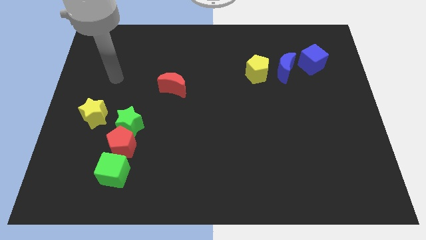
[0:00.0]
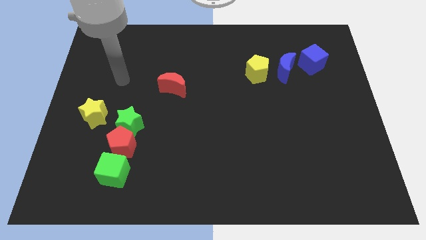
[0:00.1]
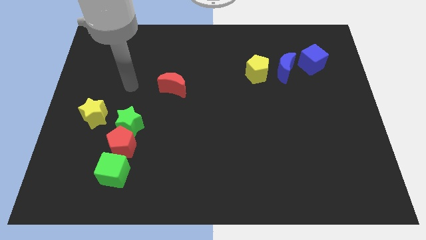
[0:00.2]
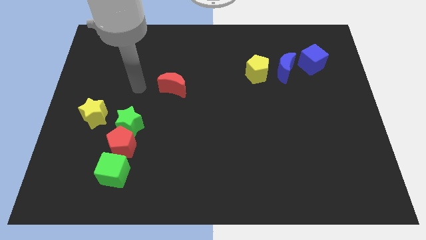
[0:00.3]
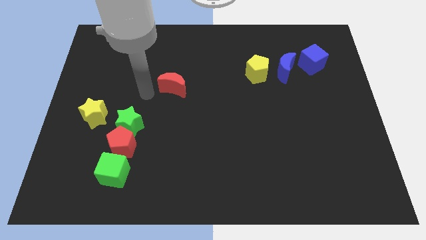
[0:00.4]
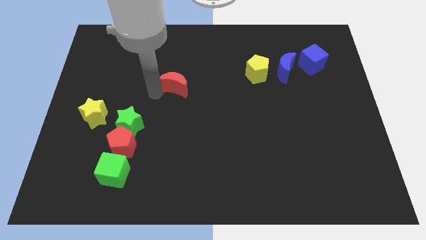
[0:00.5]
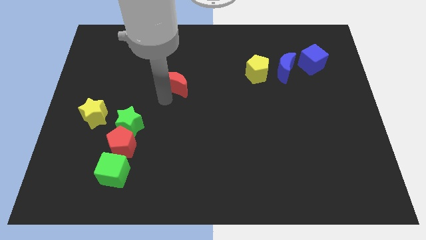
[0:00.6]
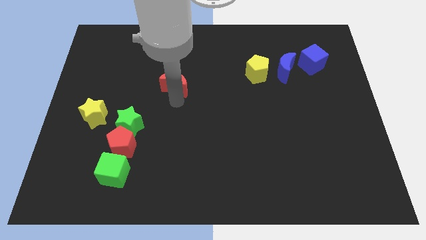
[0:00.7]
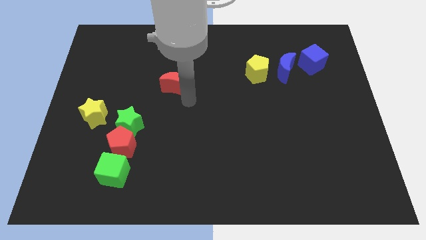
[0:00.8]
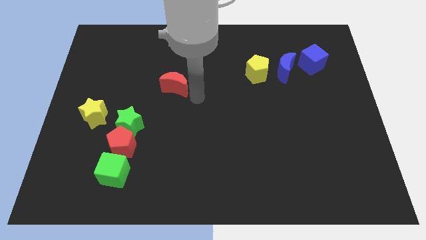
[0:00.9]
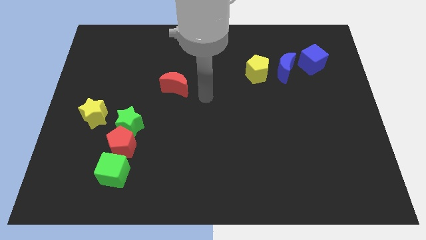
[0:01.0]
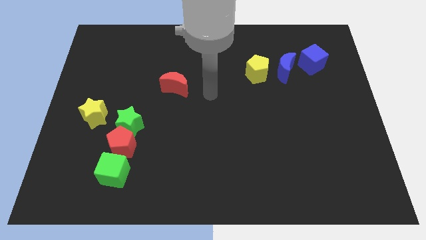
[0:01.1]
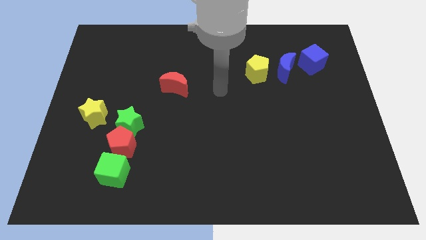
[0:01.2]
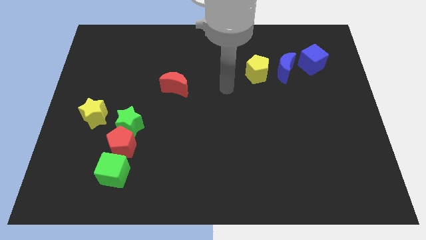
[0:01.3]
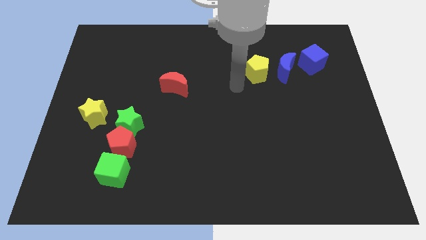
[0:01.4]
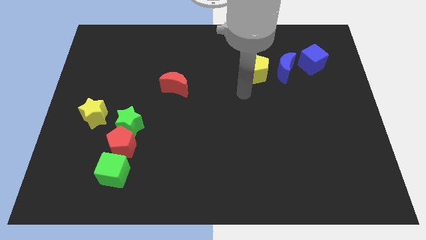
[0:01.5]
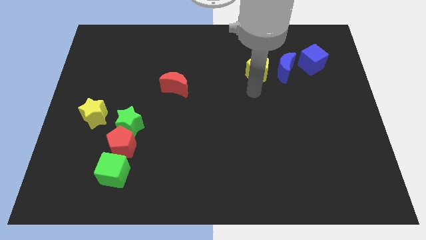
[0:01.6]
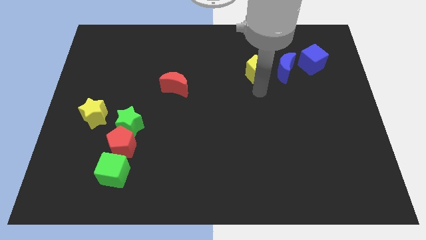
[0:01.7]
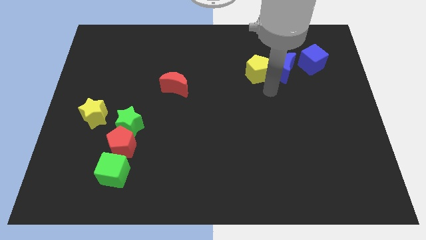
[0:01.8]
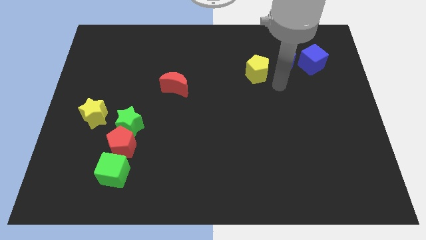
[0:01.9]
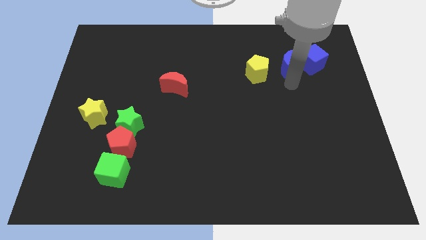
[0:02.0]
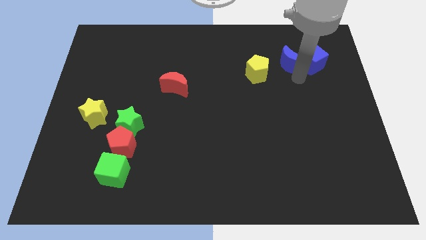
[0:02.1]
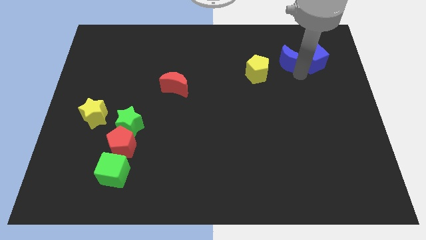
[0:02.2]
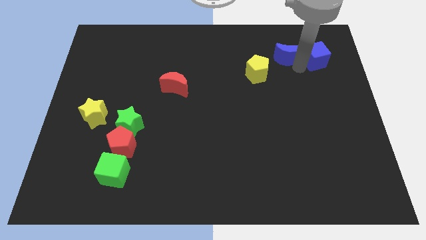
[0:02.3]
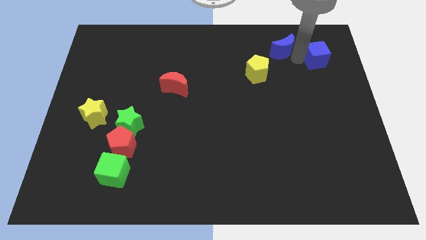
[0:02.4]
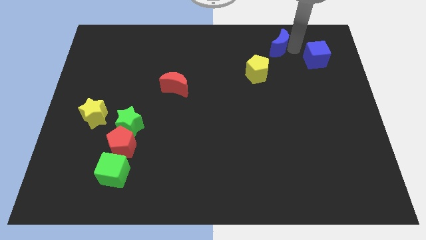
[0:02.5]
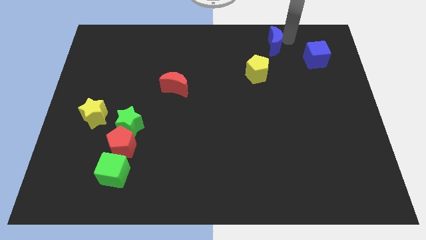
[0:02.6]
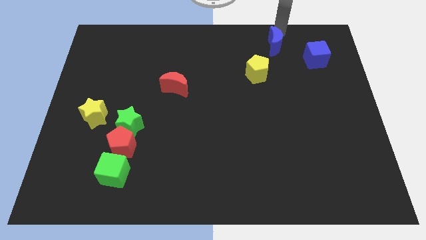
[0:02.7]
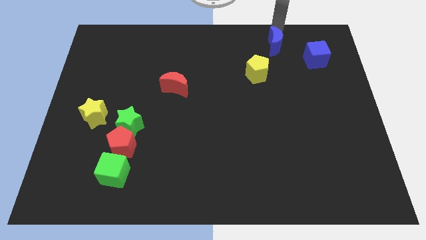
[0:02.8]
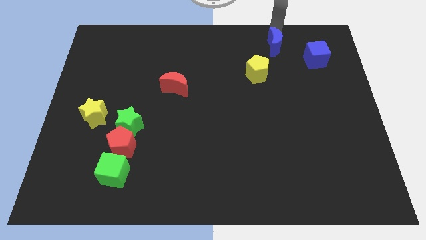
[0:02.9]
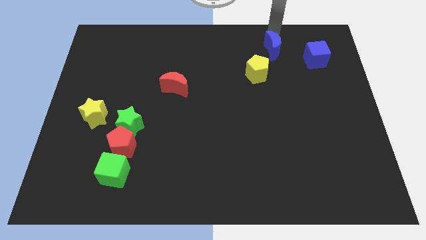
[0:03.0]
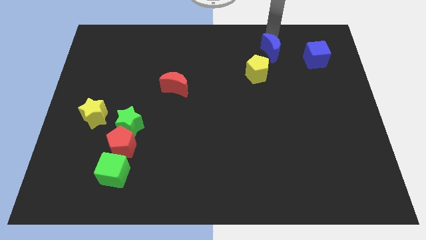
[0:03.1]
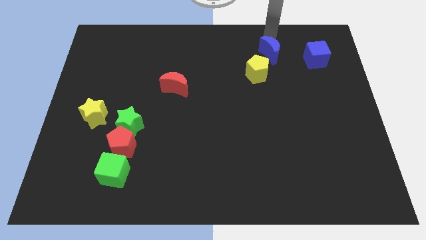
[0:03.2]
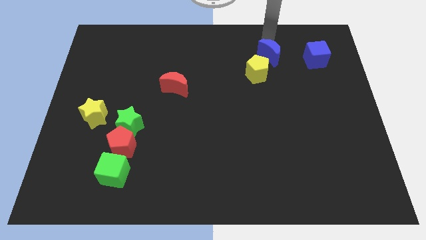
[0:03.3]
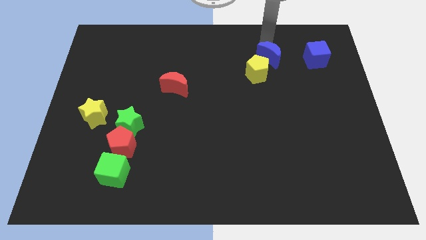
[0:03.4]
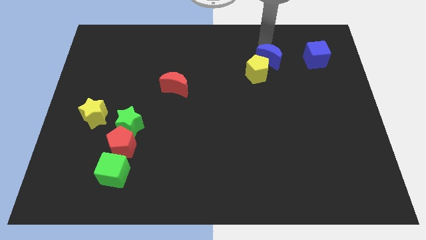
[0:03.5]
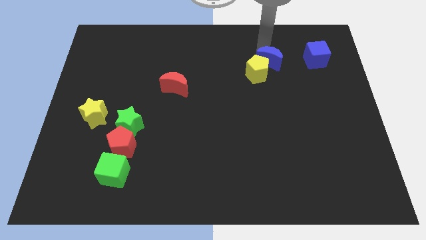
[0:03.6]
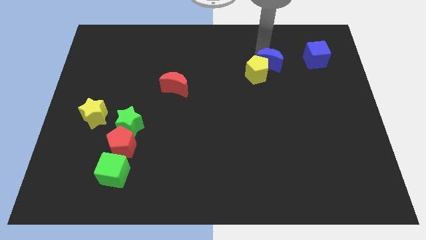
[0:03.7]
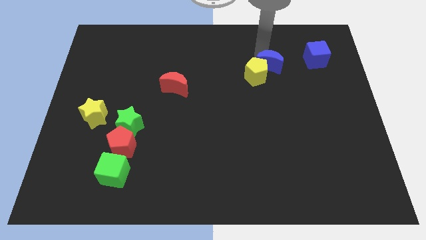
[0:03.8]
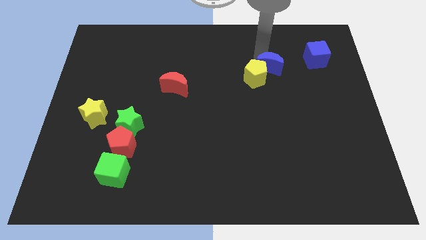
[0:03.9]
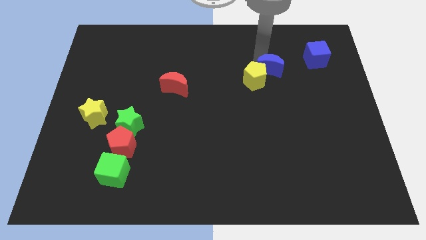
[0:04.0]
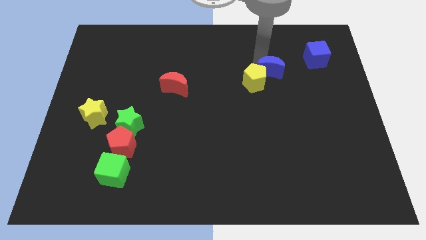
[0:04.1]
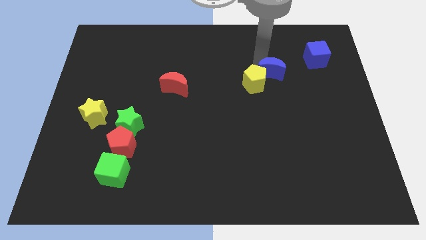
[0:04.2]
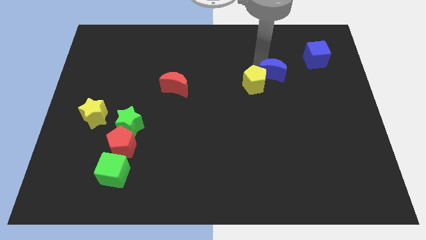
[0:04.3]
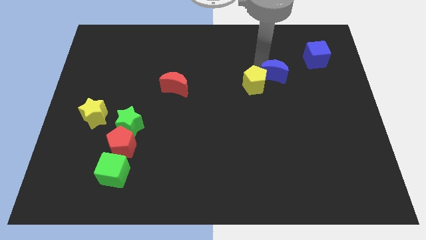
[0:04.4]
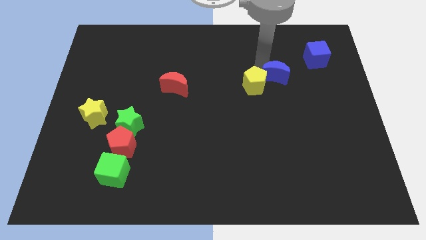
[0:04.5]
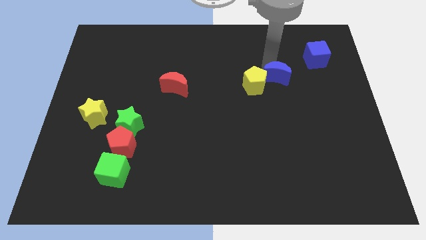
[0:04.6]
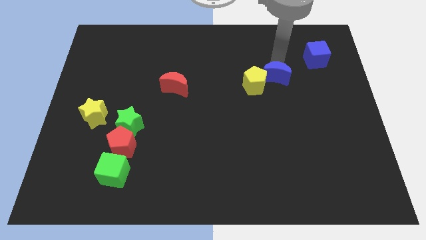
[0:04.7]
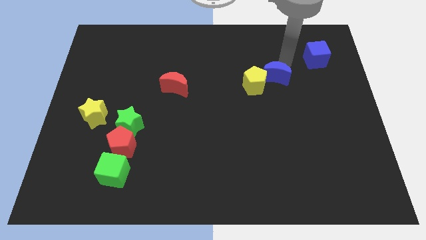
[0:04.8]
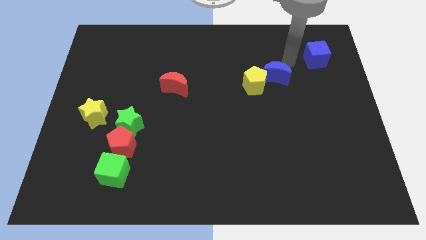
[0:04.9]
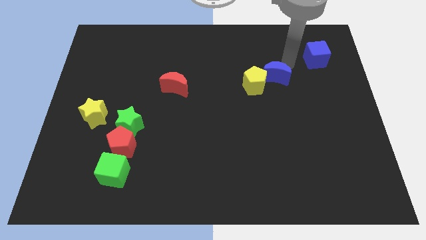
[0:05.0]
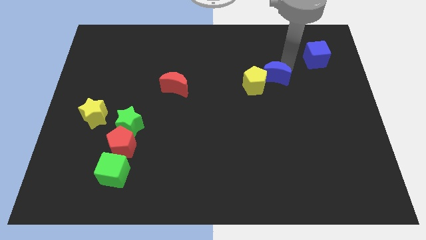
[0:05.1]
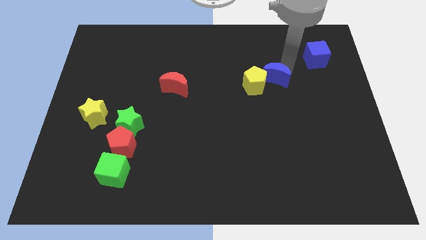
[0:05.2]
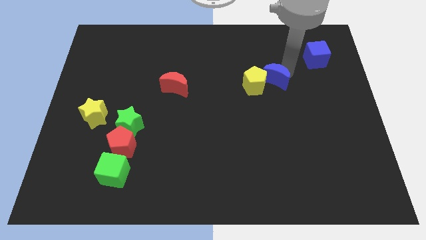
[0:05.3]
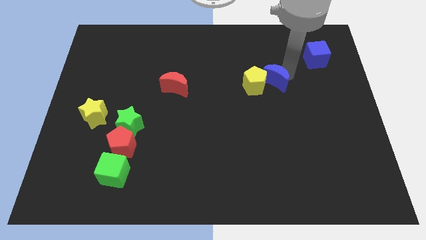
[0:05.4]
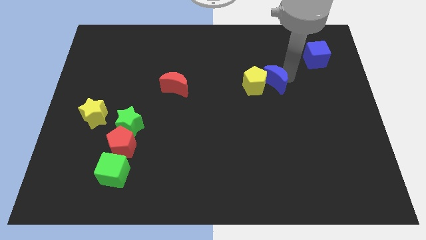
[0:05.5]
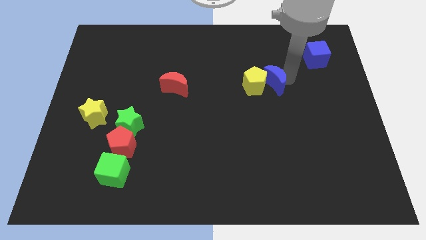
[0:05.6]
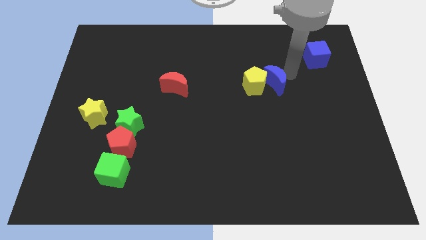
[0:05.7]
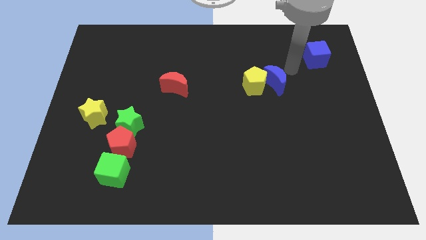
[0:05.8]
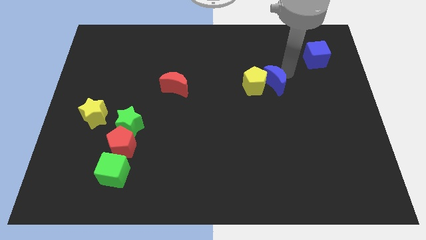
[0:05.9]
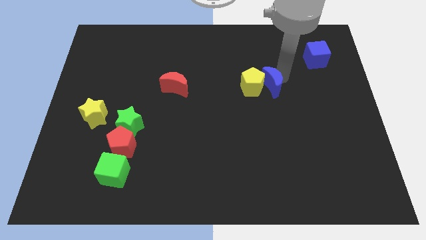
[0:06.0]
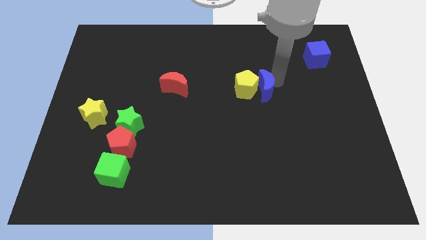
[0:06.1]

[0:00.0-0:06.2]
move the blue moon downwards and left diagonally slightly

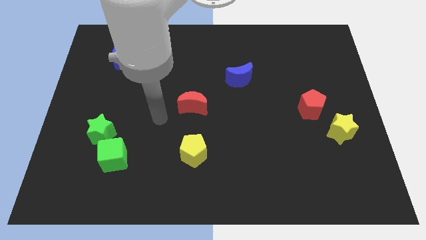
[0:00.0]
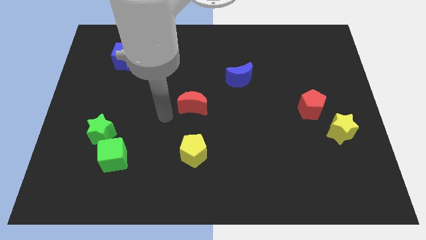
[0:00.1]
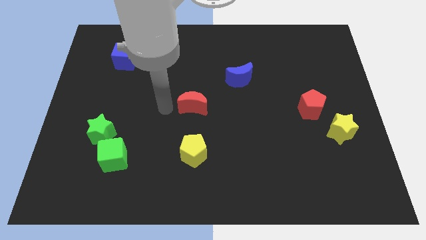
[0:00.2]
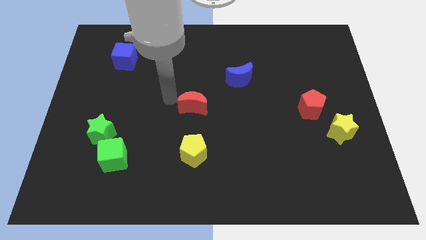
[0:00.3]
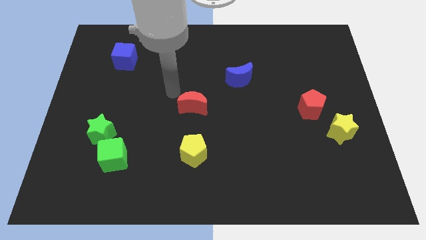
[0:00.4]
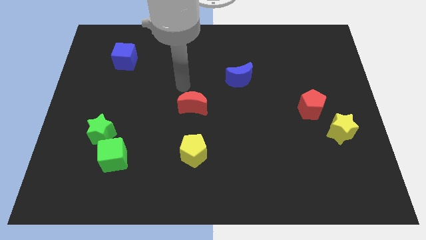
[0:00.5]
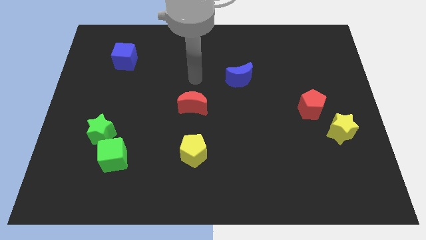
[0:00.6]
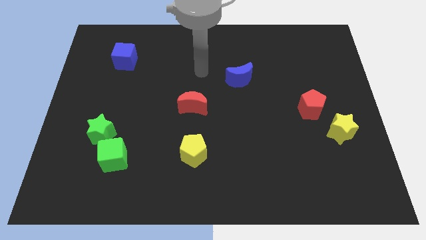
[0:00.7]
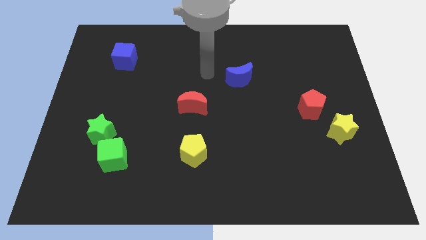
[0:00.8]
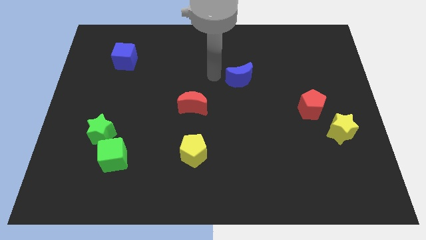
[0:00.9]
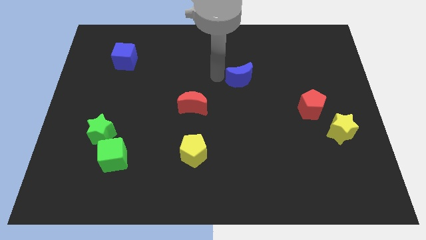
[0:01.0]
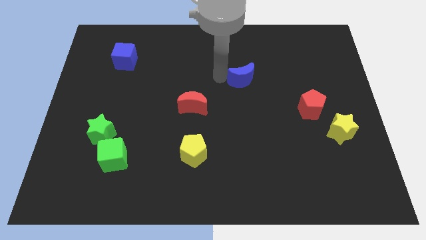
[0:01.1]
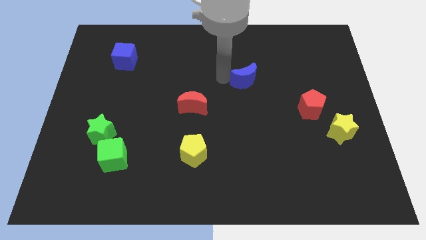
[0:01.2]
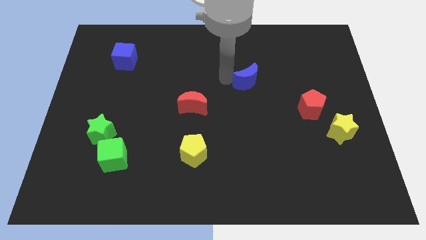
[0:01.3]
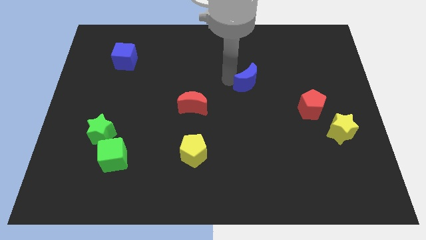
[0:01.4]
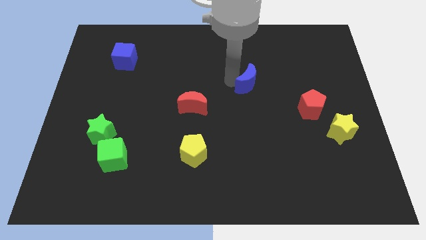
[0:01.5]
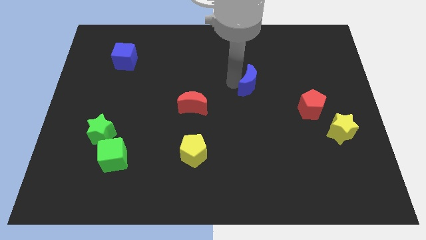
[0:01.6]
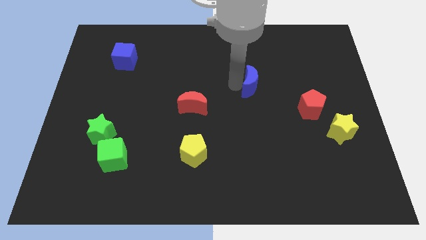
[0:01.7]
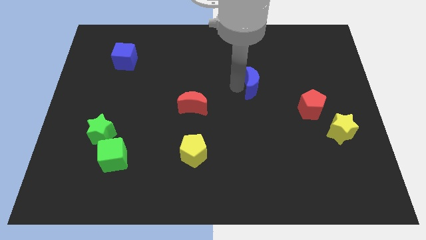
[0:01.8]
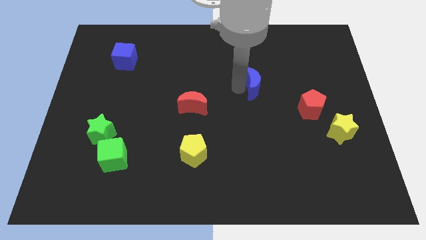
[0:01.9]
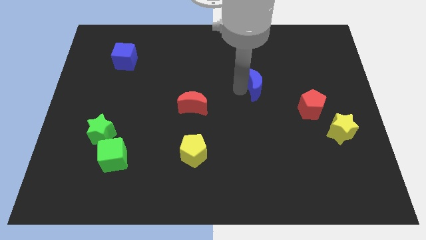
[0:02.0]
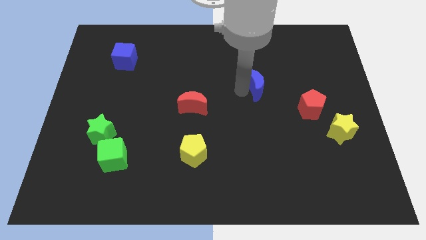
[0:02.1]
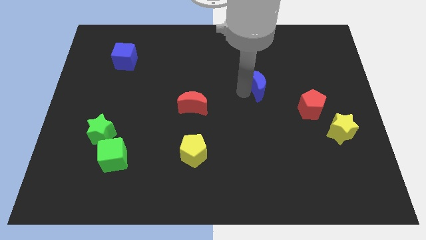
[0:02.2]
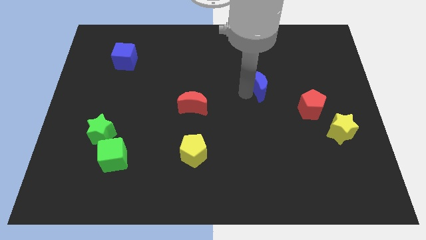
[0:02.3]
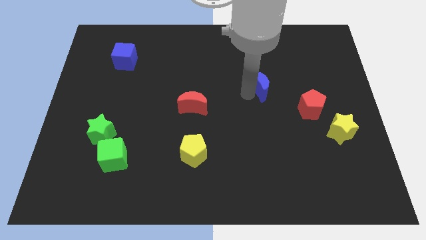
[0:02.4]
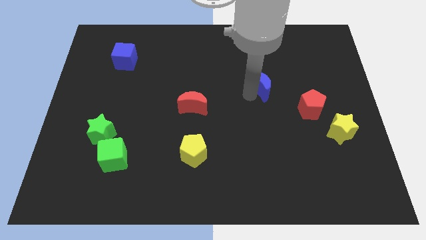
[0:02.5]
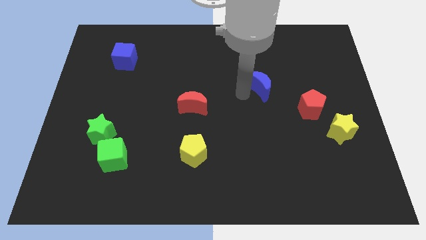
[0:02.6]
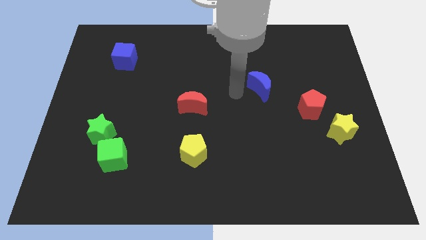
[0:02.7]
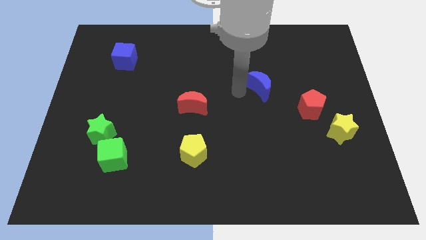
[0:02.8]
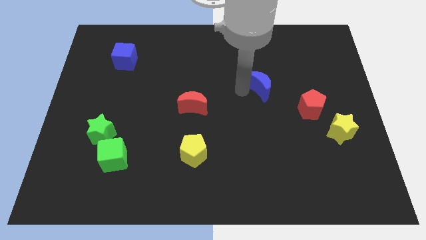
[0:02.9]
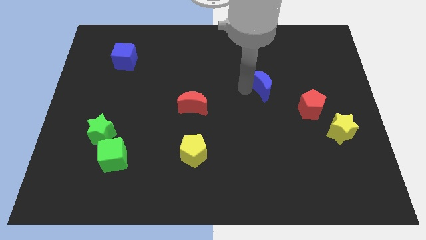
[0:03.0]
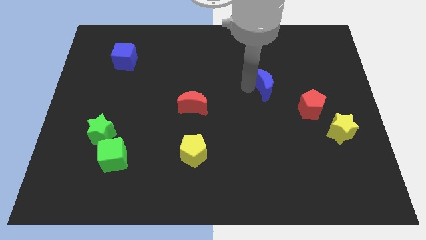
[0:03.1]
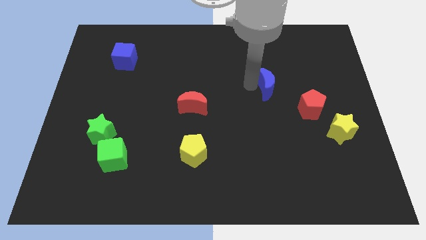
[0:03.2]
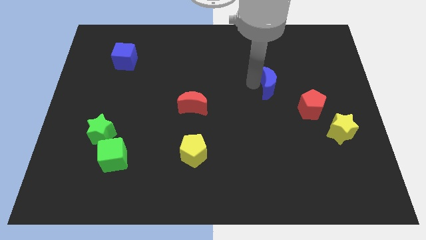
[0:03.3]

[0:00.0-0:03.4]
slightly push the blue moon right
